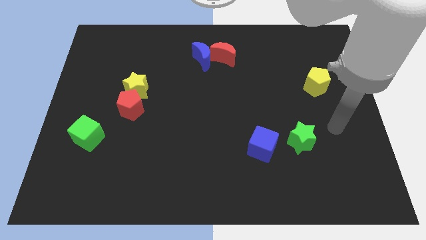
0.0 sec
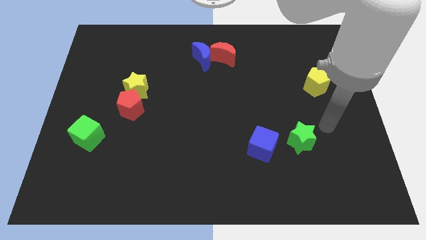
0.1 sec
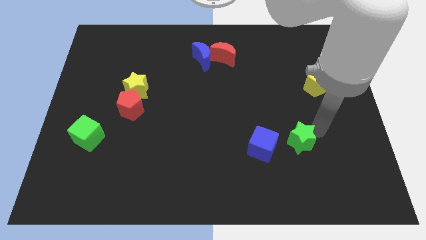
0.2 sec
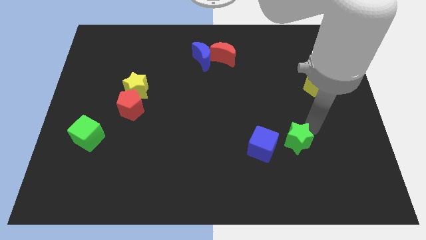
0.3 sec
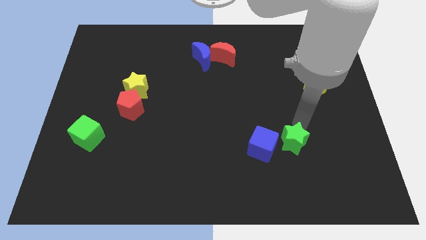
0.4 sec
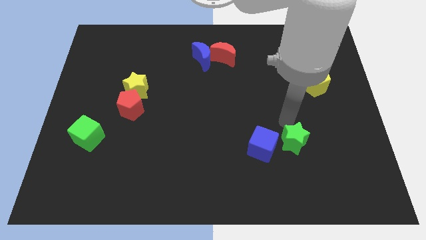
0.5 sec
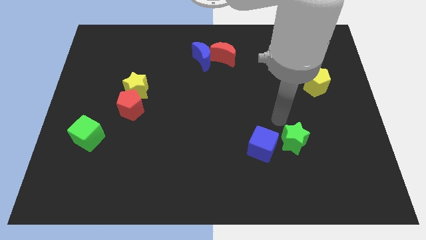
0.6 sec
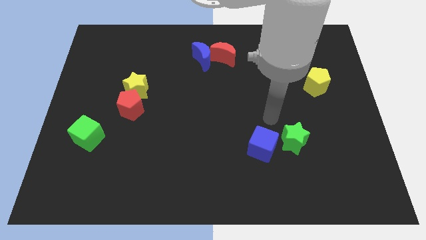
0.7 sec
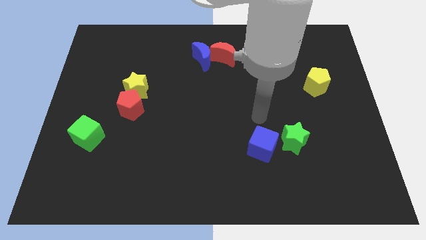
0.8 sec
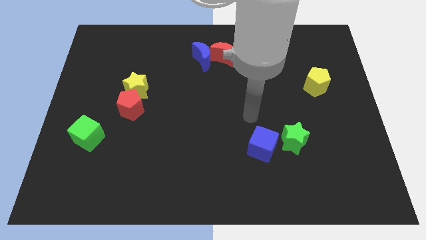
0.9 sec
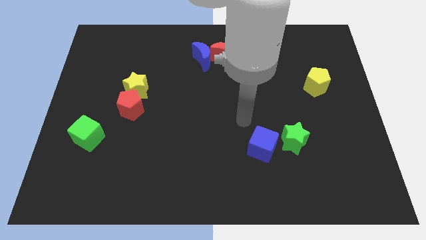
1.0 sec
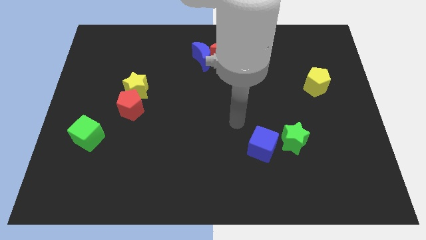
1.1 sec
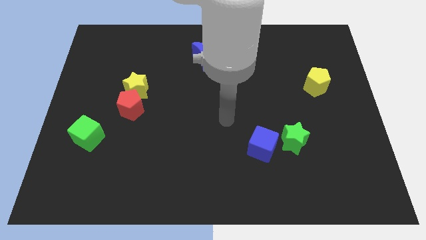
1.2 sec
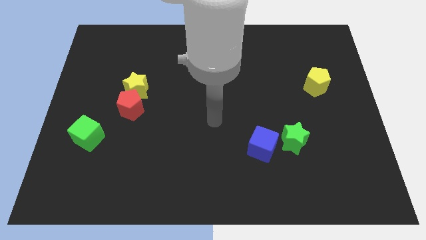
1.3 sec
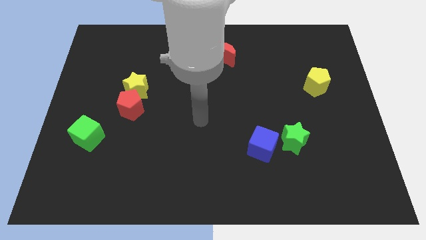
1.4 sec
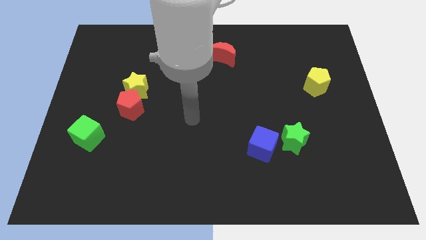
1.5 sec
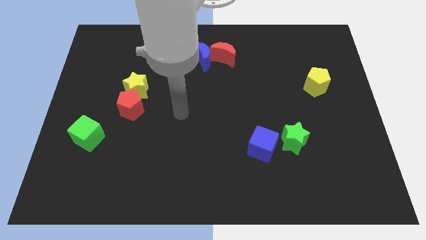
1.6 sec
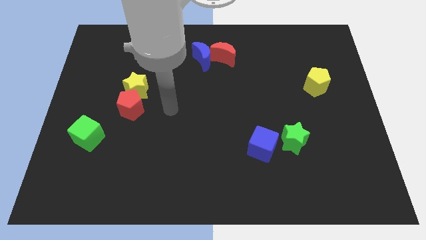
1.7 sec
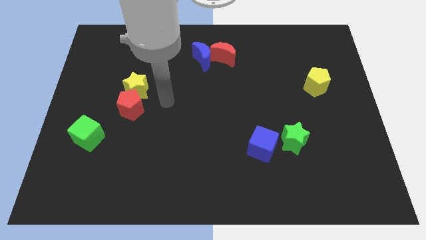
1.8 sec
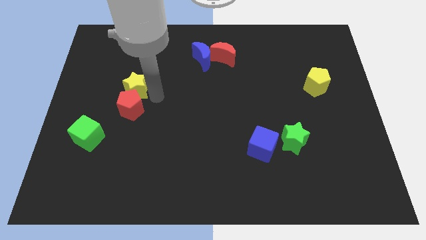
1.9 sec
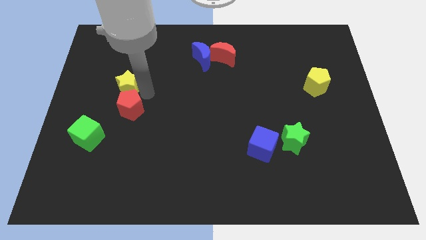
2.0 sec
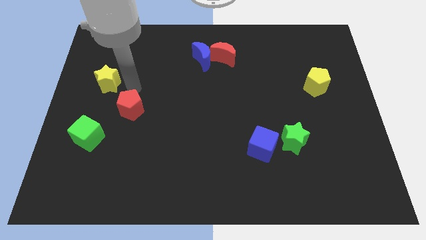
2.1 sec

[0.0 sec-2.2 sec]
separate the red pentagon from the yellow star

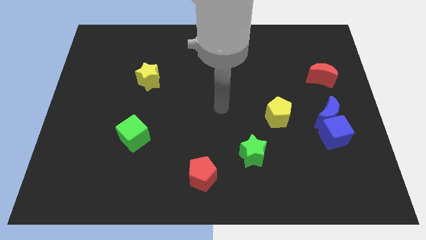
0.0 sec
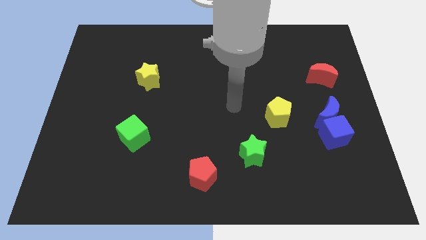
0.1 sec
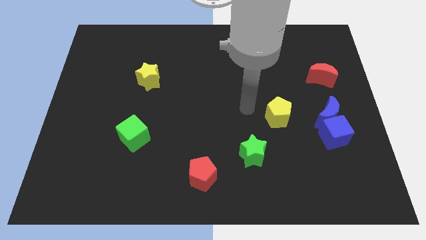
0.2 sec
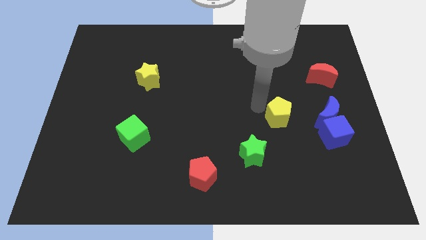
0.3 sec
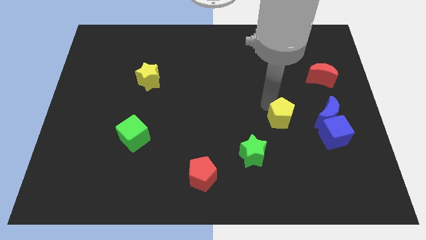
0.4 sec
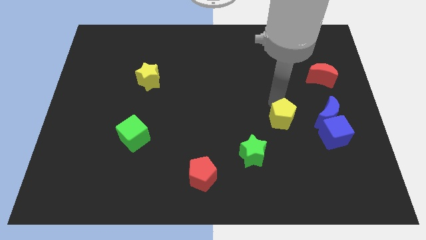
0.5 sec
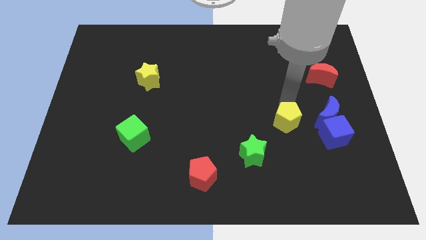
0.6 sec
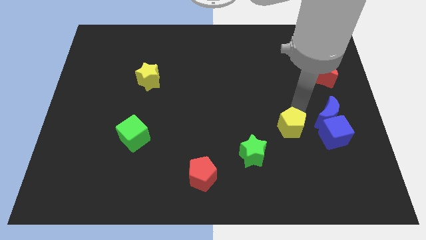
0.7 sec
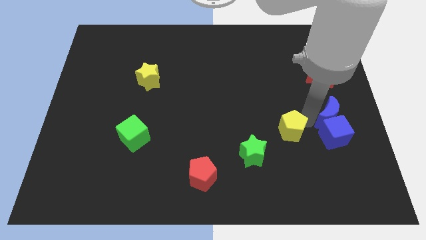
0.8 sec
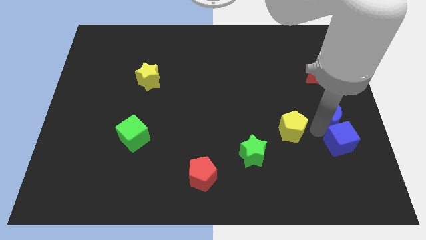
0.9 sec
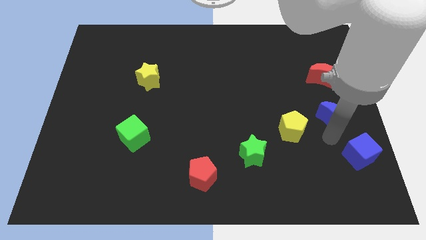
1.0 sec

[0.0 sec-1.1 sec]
move the blue moon away from the blue cube

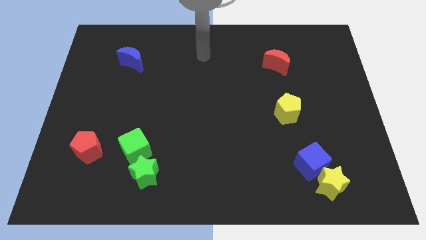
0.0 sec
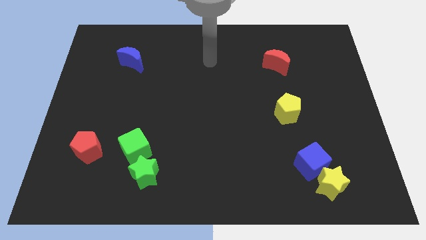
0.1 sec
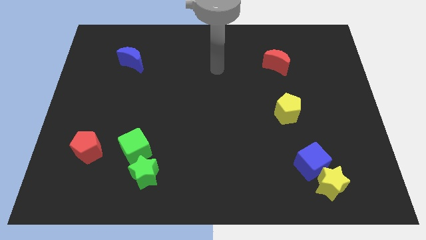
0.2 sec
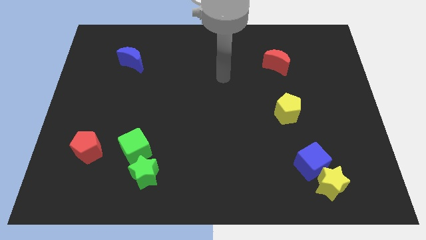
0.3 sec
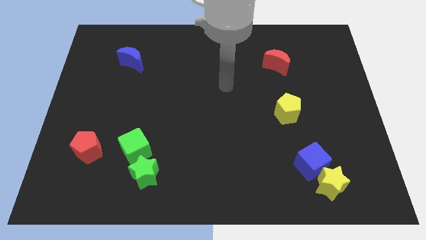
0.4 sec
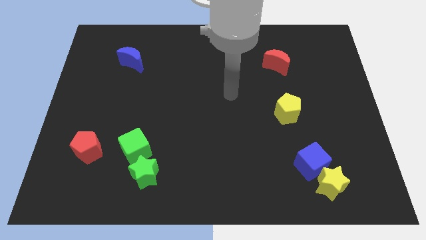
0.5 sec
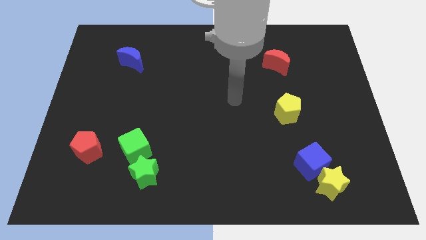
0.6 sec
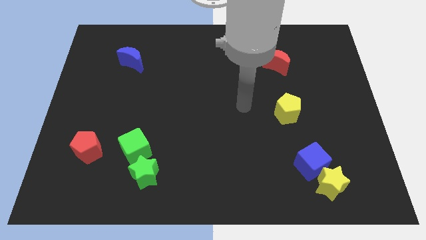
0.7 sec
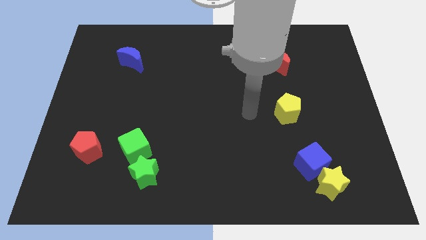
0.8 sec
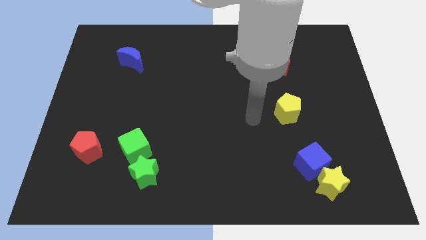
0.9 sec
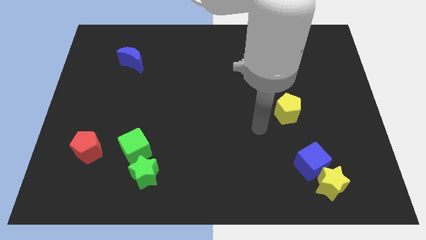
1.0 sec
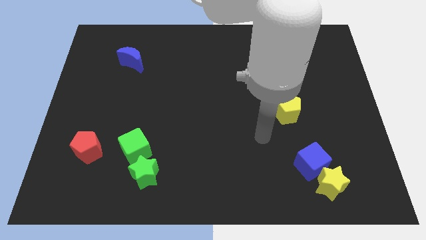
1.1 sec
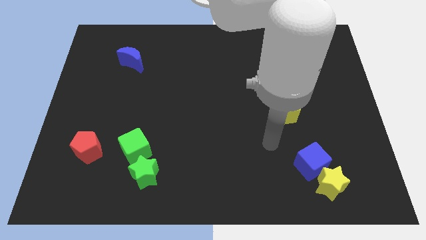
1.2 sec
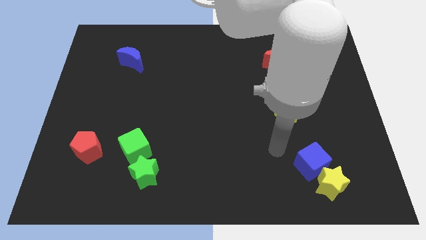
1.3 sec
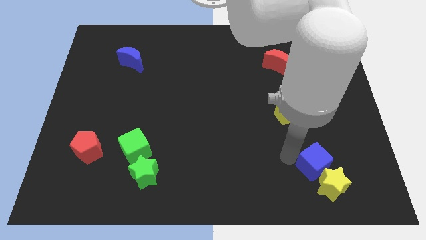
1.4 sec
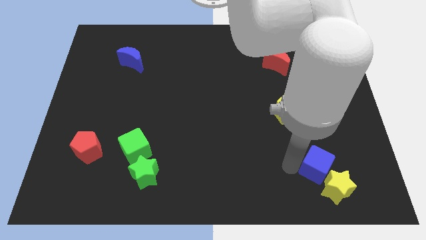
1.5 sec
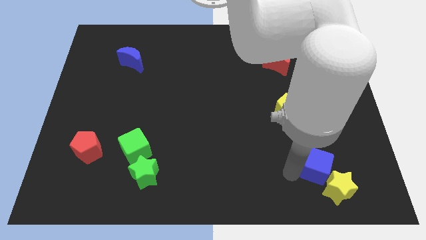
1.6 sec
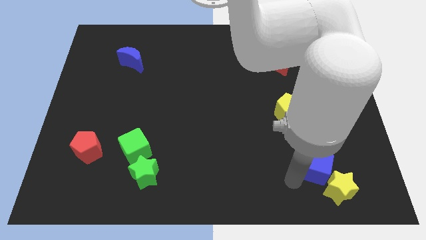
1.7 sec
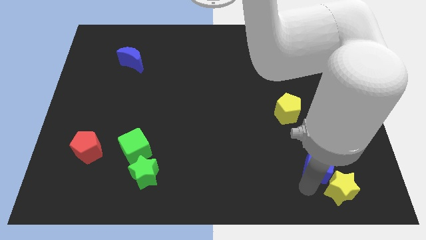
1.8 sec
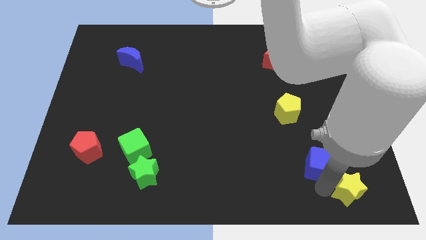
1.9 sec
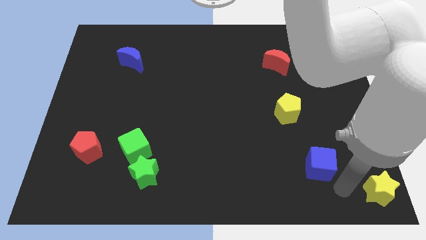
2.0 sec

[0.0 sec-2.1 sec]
move the blue cube away from the yellow star

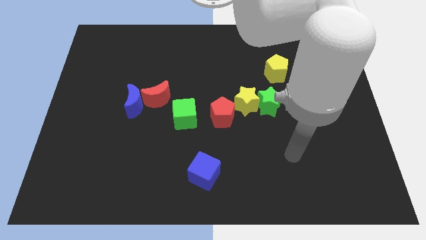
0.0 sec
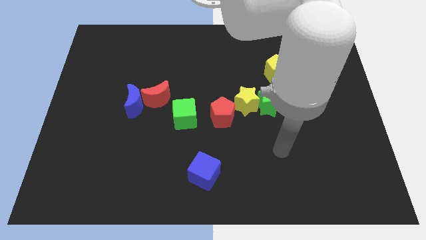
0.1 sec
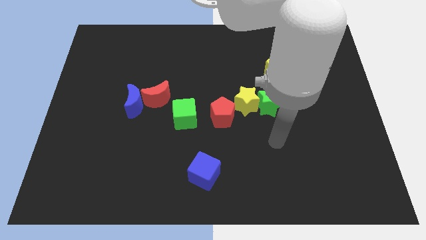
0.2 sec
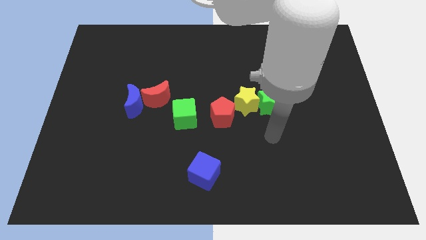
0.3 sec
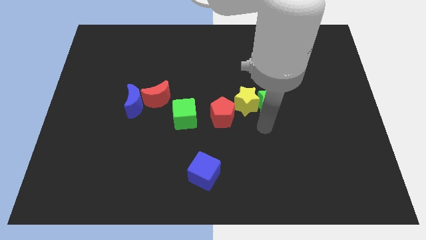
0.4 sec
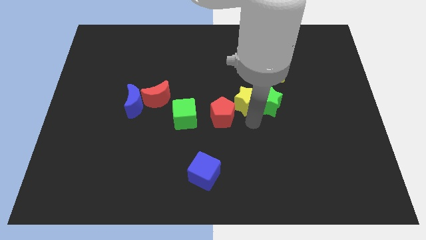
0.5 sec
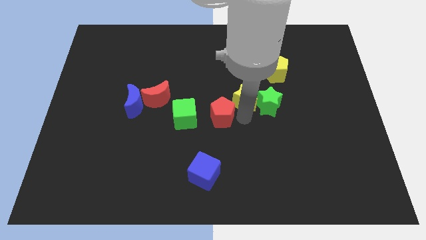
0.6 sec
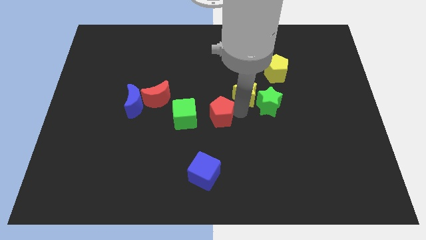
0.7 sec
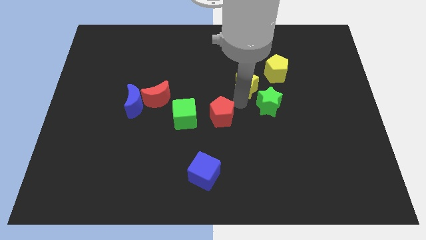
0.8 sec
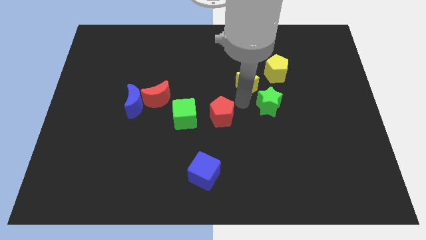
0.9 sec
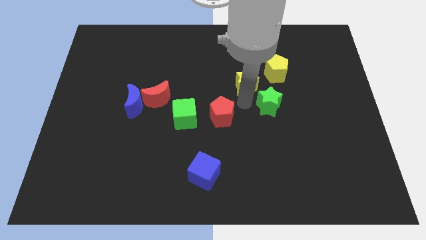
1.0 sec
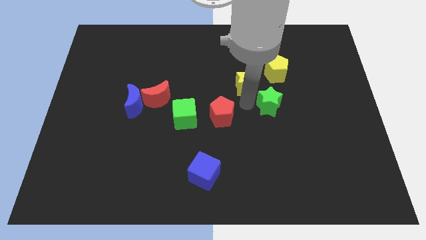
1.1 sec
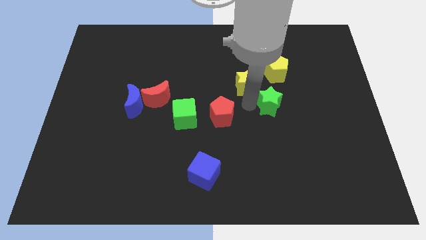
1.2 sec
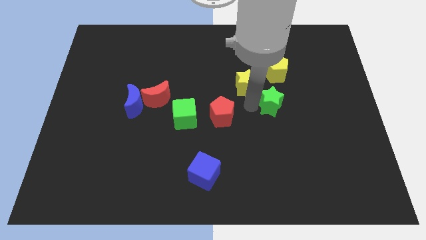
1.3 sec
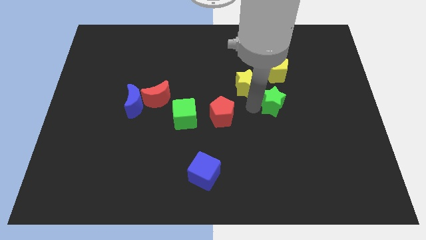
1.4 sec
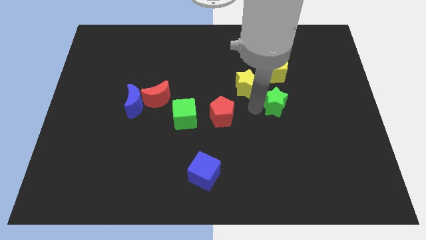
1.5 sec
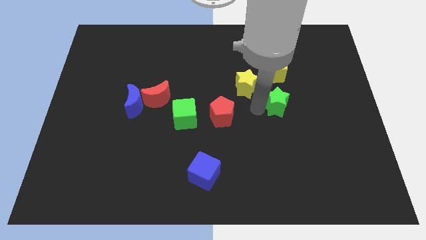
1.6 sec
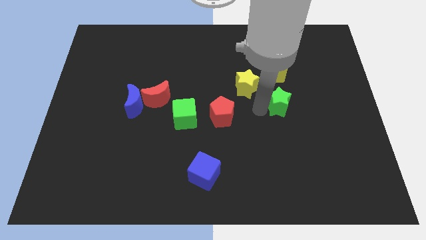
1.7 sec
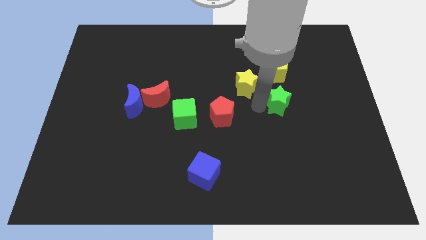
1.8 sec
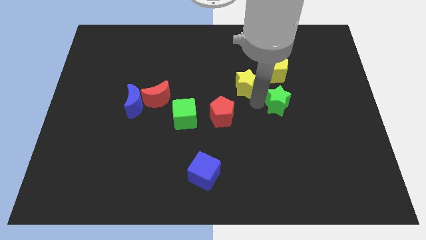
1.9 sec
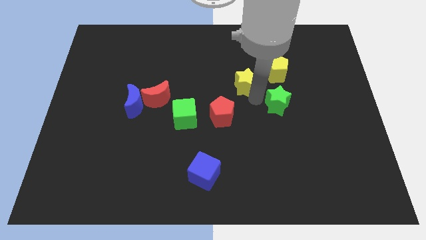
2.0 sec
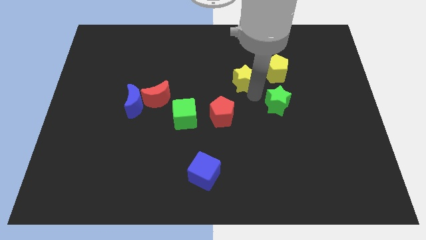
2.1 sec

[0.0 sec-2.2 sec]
pull the green star apart from the yellow star

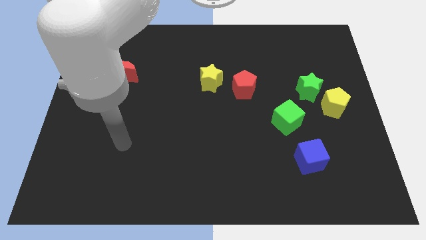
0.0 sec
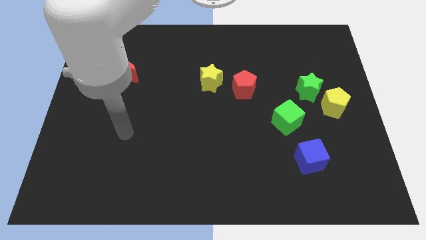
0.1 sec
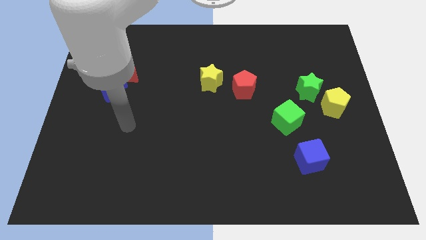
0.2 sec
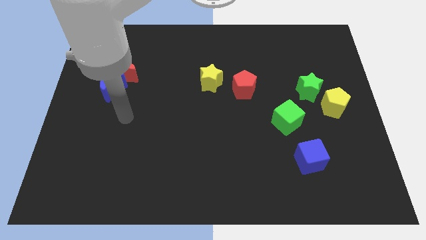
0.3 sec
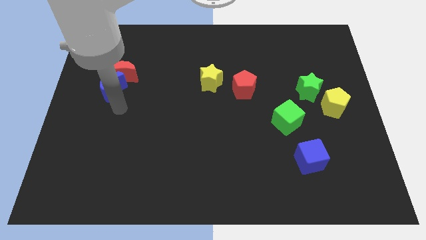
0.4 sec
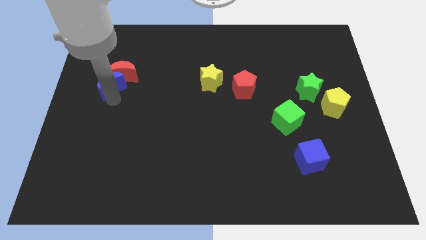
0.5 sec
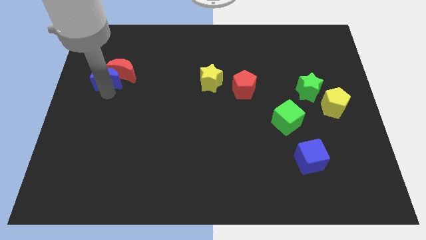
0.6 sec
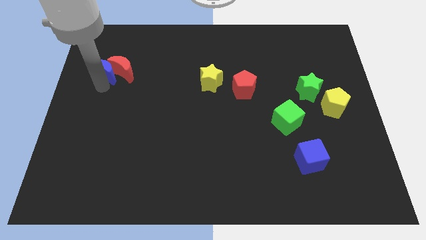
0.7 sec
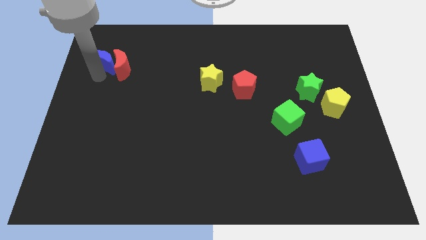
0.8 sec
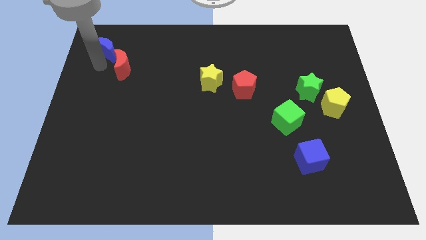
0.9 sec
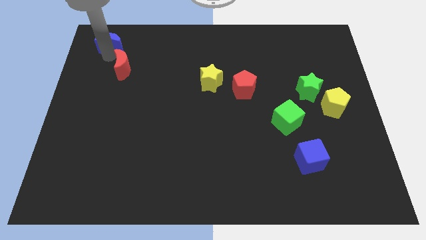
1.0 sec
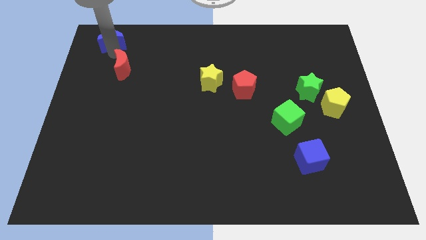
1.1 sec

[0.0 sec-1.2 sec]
move the red moon away from the blue moon

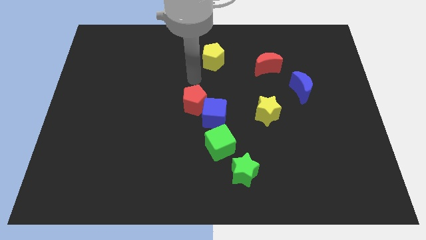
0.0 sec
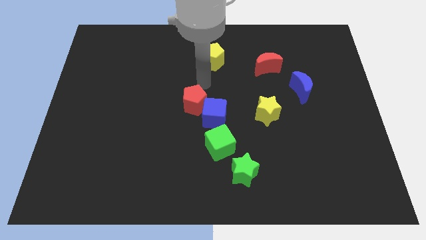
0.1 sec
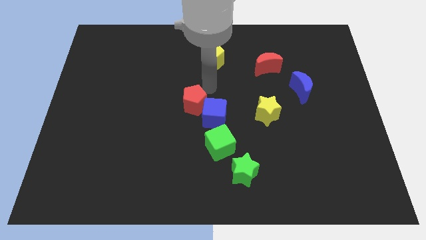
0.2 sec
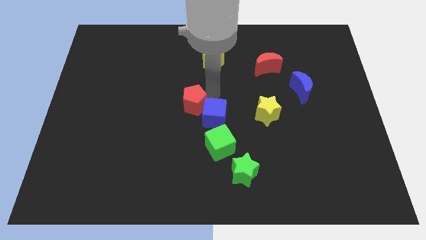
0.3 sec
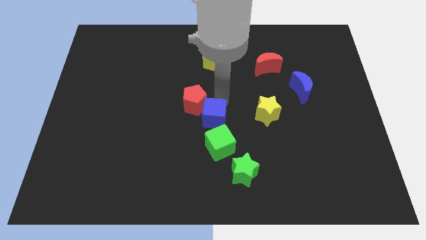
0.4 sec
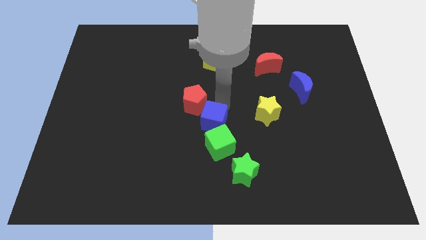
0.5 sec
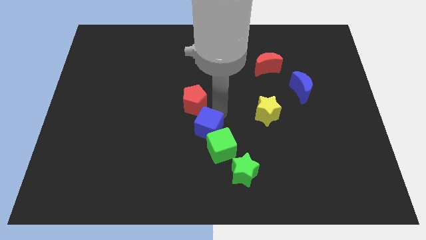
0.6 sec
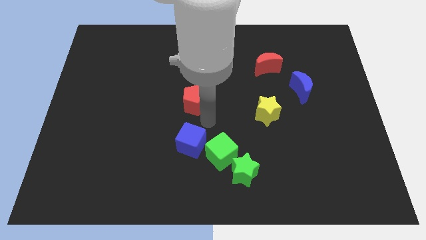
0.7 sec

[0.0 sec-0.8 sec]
pull the red pentagon apart from the blue cube
